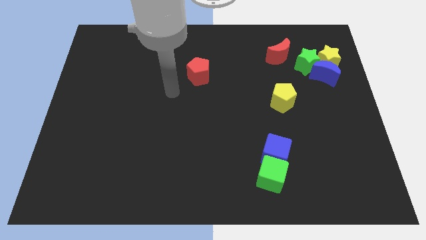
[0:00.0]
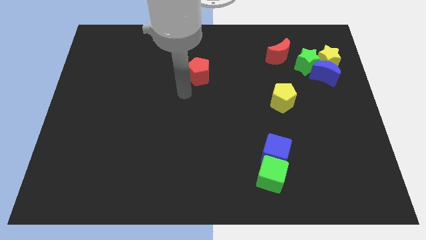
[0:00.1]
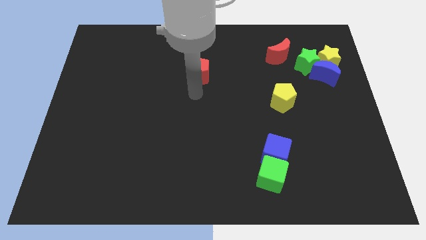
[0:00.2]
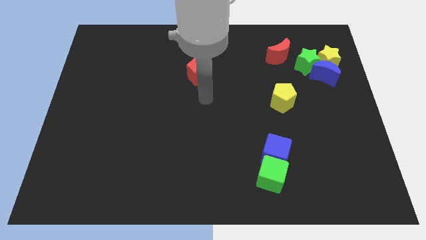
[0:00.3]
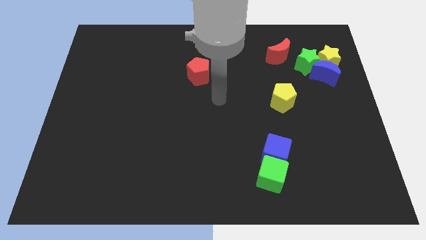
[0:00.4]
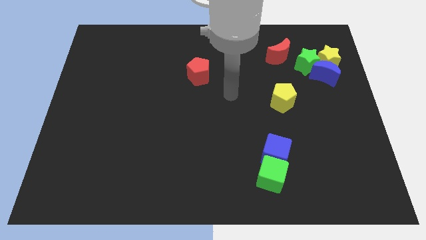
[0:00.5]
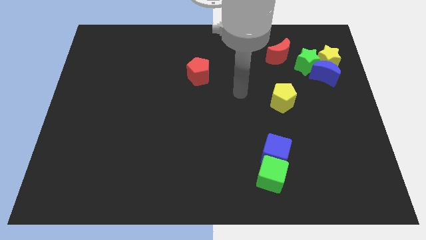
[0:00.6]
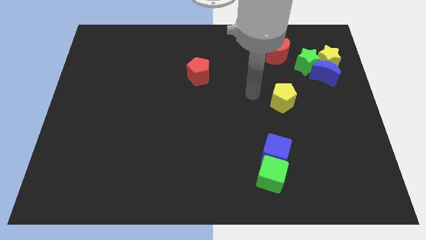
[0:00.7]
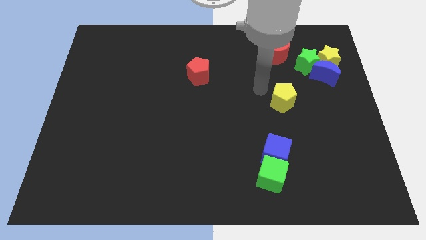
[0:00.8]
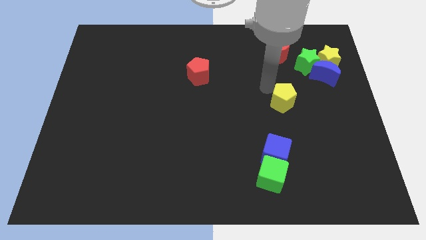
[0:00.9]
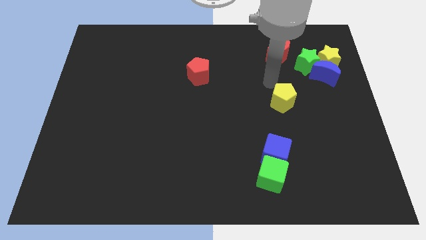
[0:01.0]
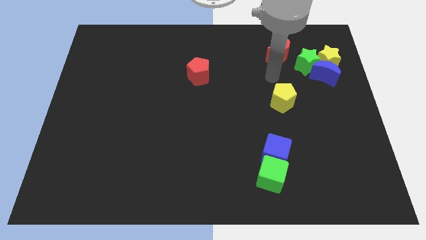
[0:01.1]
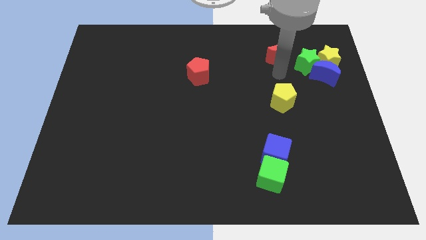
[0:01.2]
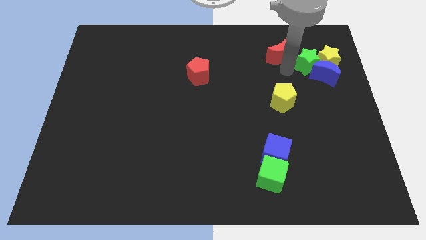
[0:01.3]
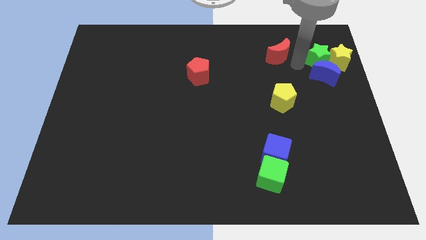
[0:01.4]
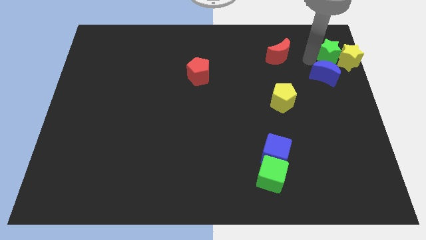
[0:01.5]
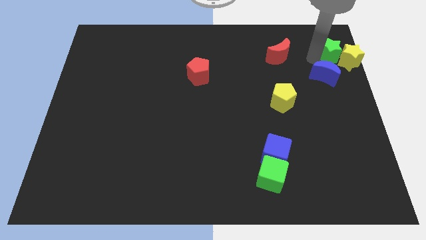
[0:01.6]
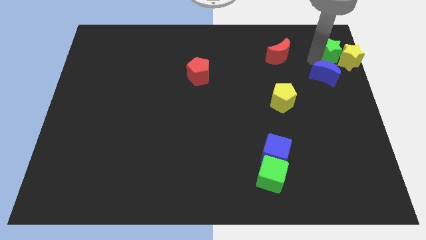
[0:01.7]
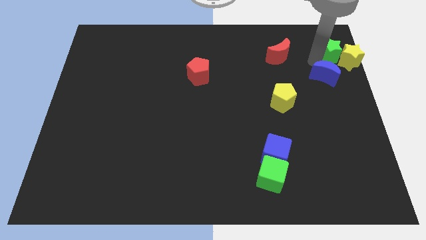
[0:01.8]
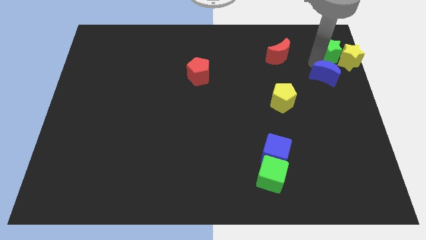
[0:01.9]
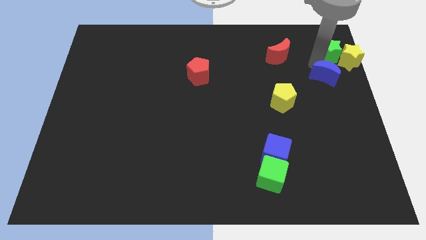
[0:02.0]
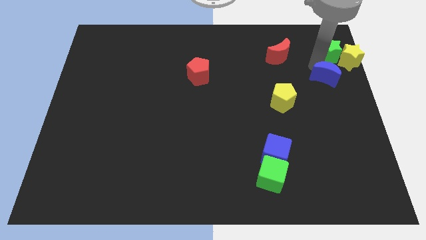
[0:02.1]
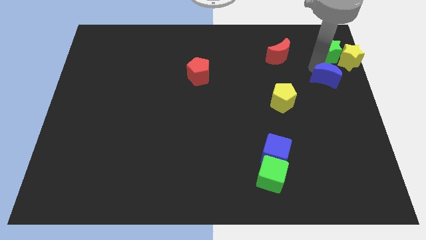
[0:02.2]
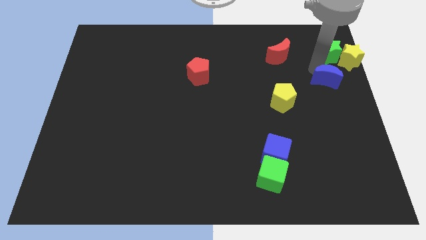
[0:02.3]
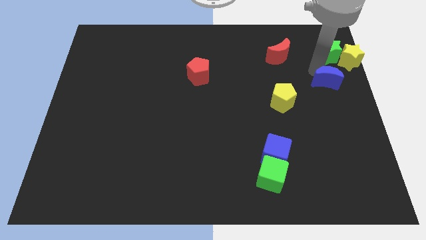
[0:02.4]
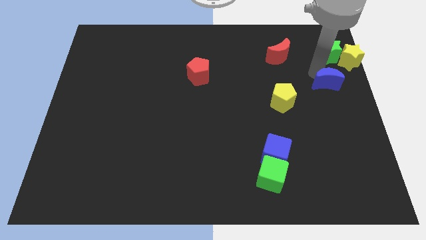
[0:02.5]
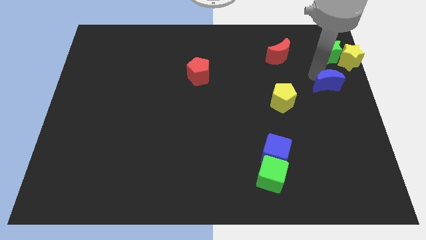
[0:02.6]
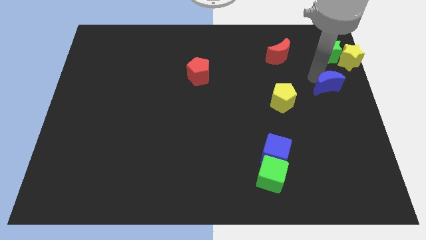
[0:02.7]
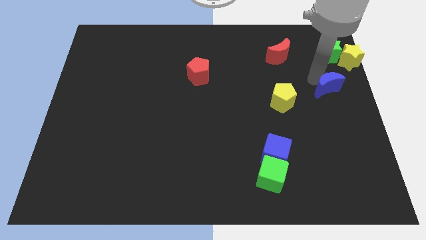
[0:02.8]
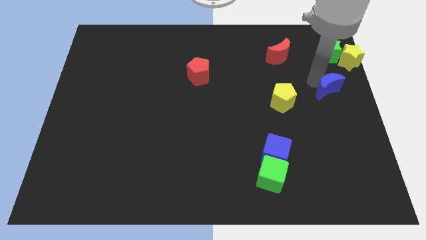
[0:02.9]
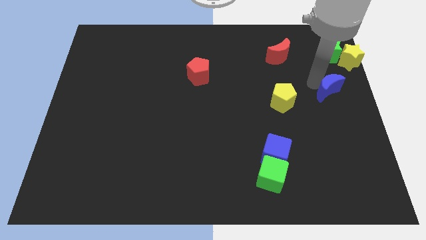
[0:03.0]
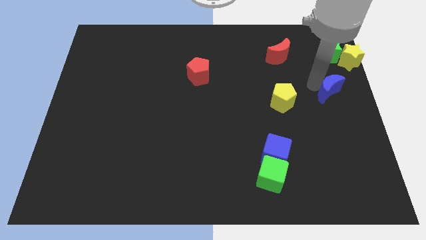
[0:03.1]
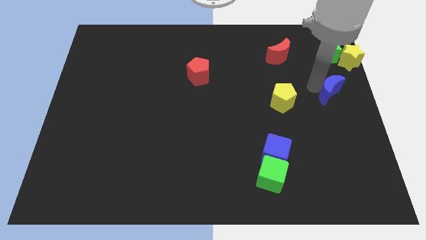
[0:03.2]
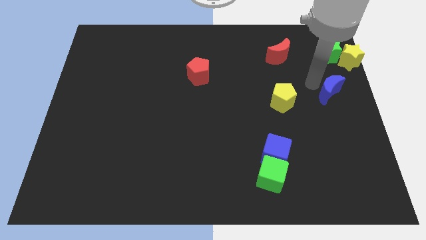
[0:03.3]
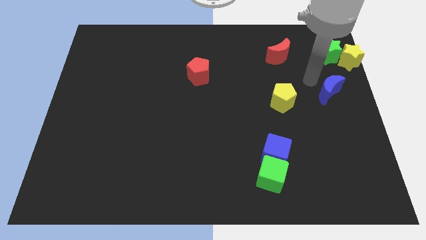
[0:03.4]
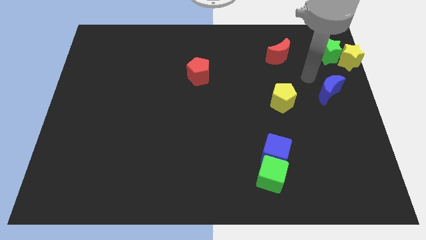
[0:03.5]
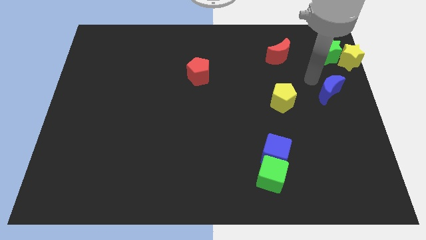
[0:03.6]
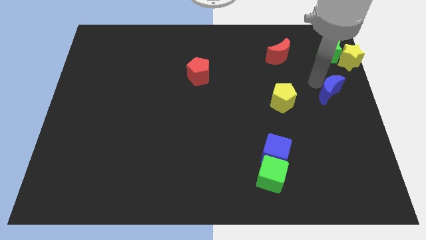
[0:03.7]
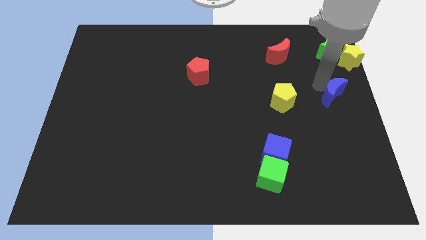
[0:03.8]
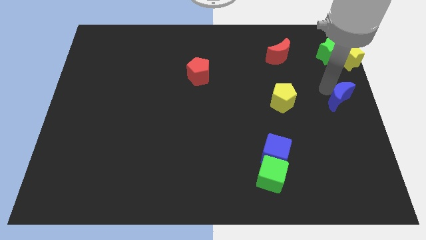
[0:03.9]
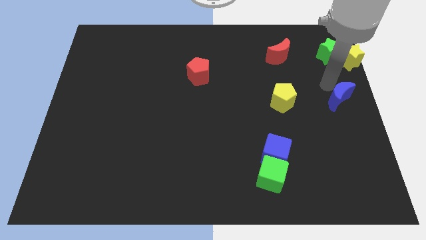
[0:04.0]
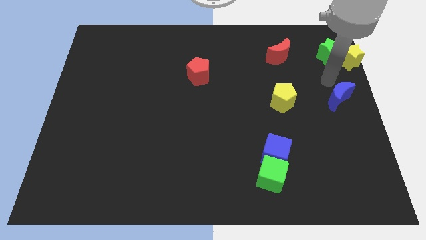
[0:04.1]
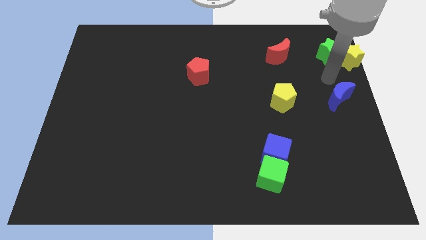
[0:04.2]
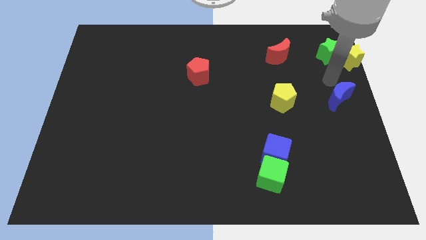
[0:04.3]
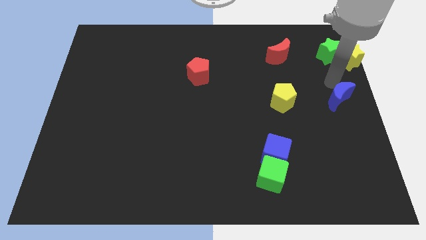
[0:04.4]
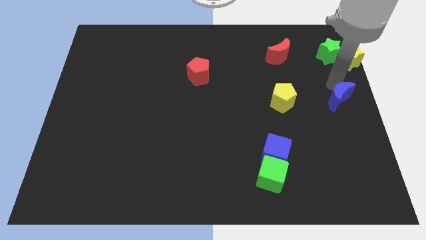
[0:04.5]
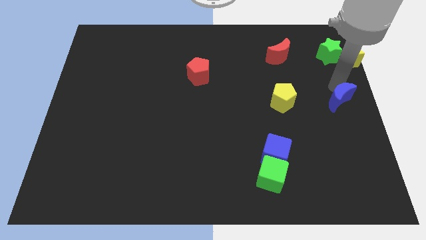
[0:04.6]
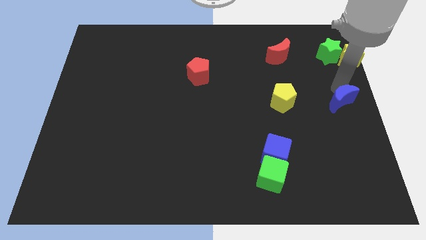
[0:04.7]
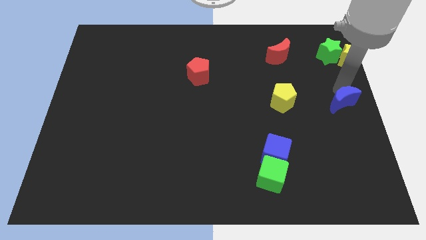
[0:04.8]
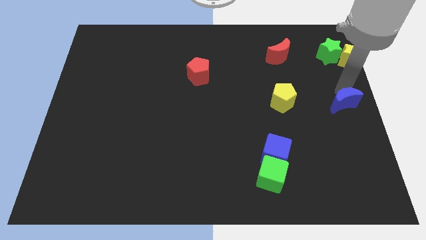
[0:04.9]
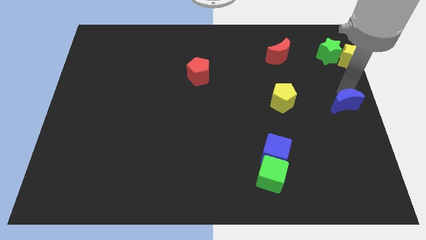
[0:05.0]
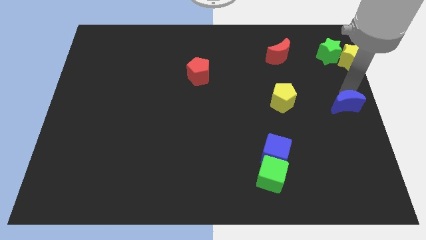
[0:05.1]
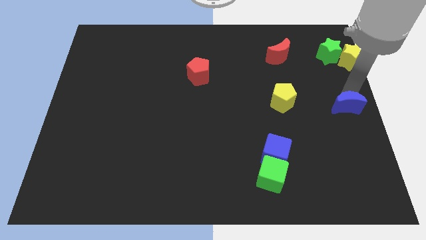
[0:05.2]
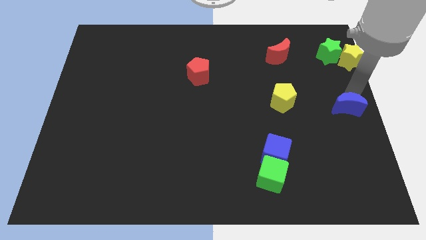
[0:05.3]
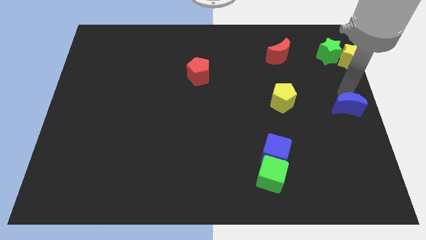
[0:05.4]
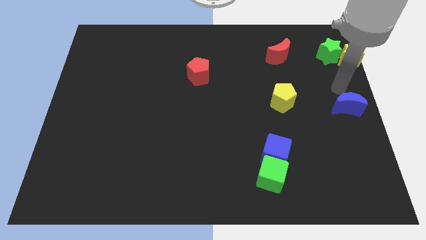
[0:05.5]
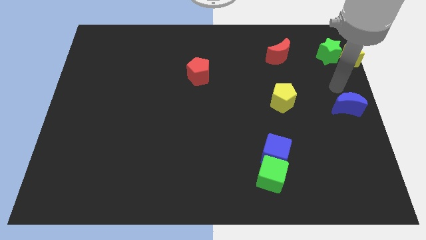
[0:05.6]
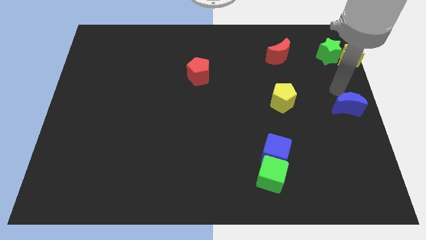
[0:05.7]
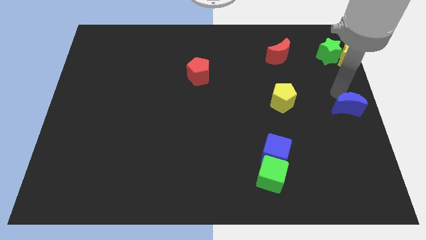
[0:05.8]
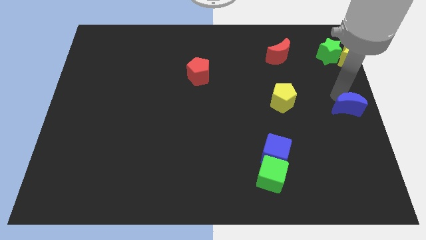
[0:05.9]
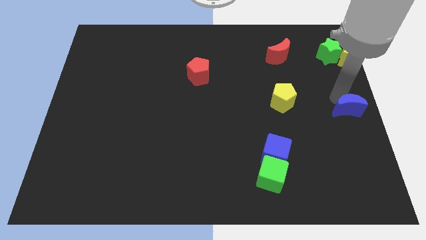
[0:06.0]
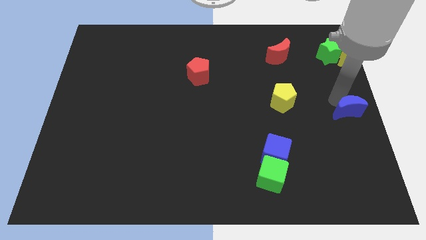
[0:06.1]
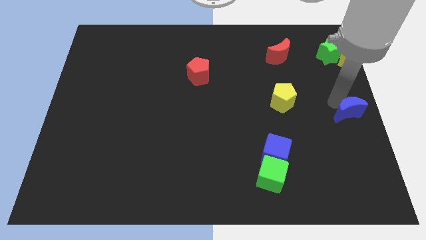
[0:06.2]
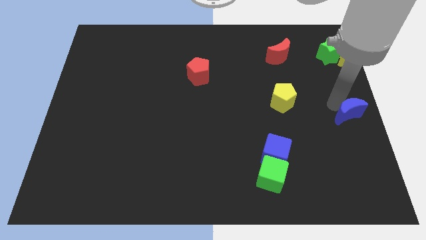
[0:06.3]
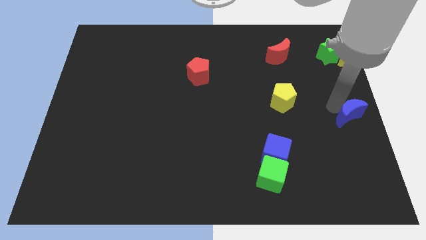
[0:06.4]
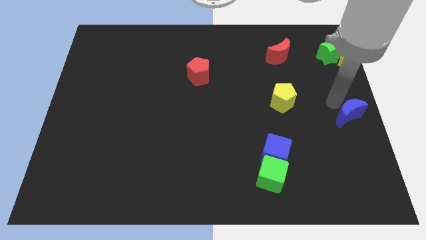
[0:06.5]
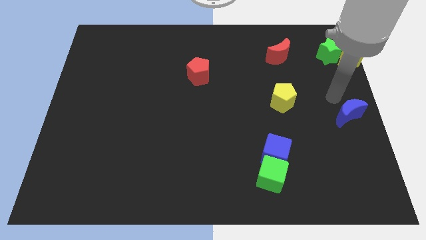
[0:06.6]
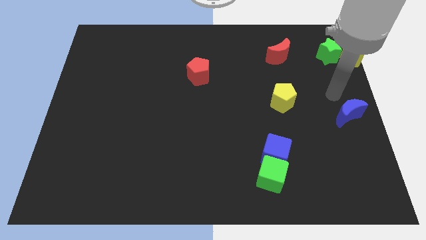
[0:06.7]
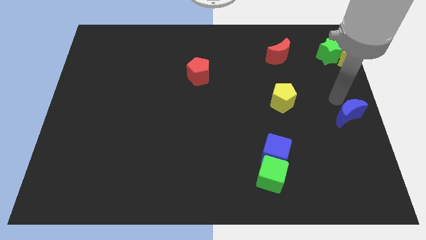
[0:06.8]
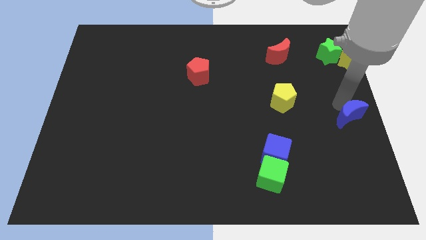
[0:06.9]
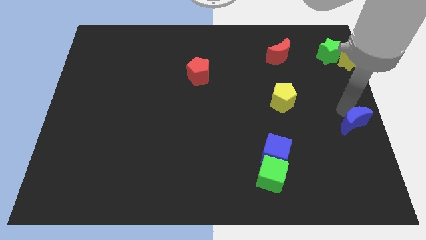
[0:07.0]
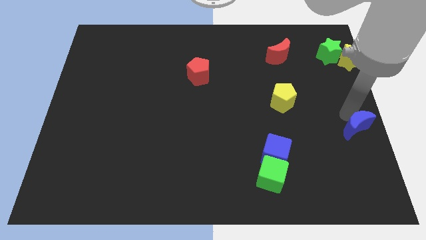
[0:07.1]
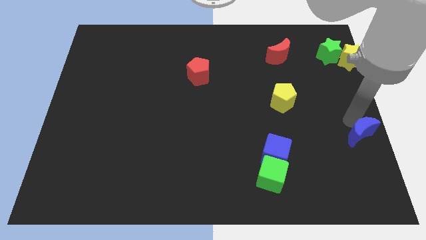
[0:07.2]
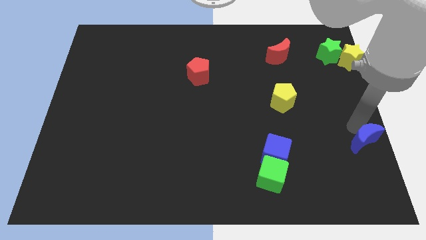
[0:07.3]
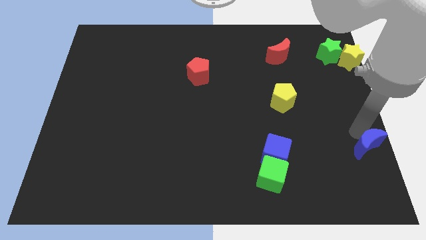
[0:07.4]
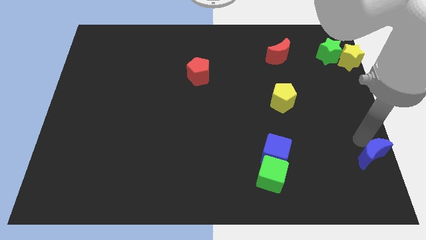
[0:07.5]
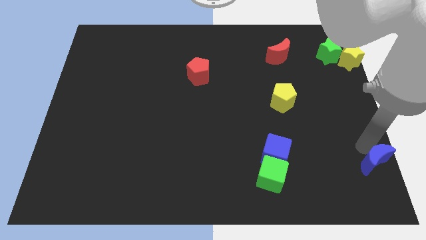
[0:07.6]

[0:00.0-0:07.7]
push the blue moon to the lower right corner
